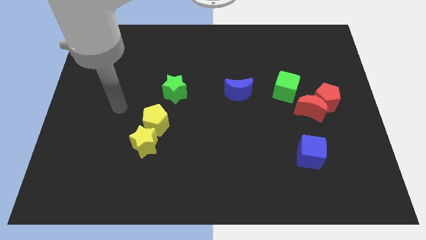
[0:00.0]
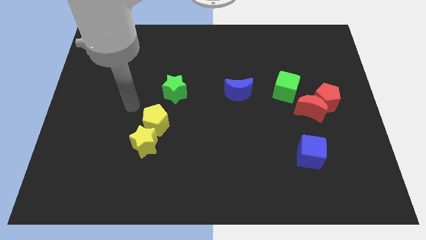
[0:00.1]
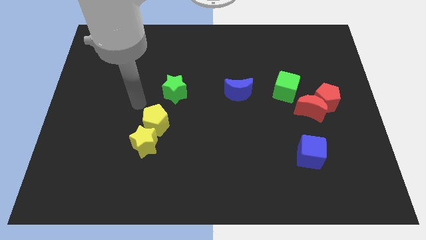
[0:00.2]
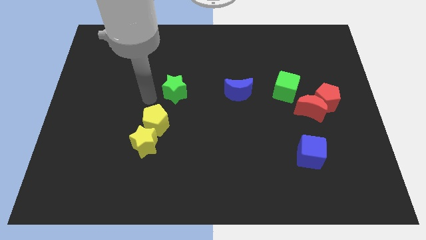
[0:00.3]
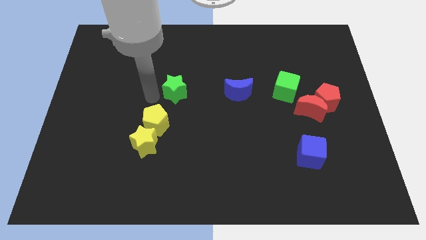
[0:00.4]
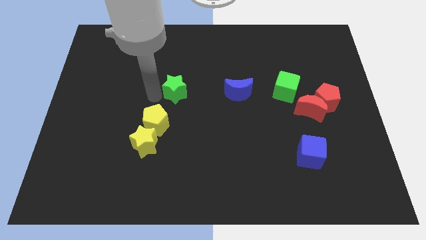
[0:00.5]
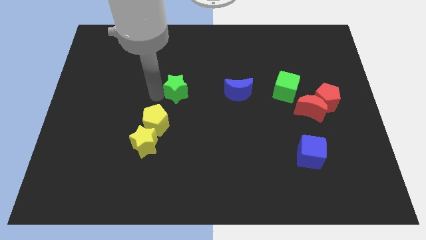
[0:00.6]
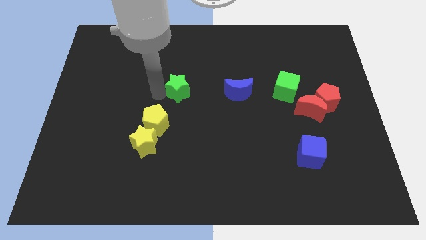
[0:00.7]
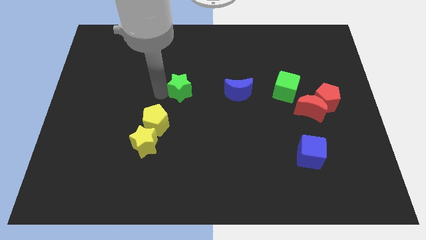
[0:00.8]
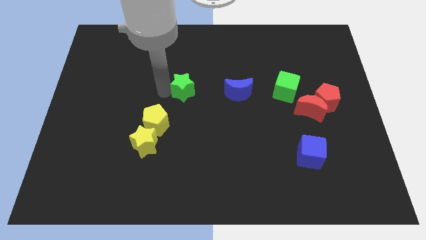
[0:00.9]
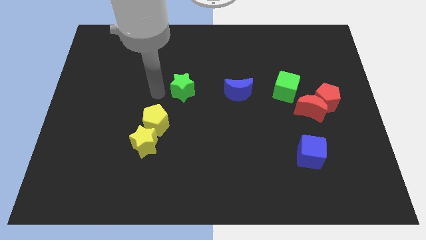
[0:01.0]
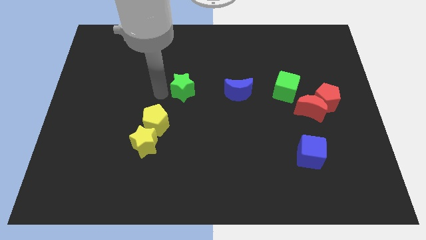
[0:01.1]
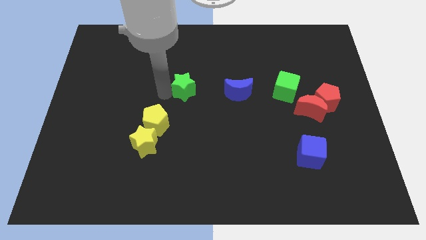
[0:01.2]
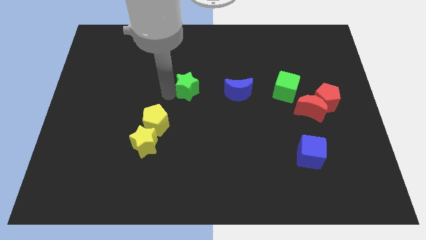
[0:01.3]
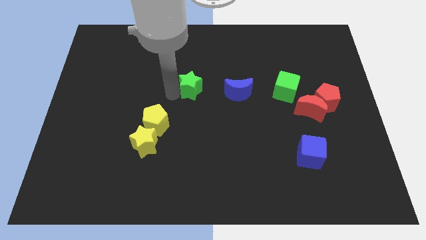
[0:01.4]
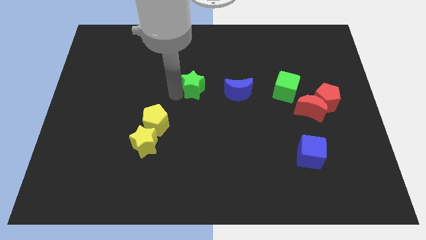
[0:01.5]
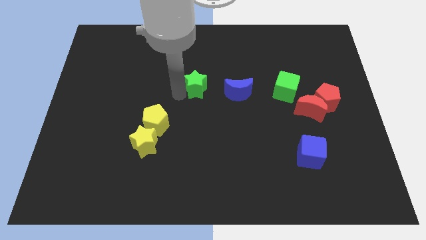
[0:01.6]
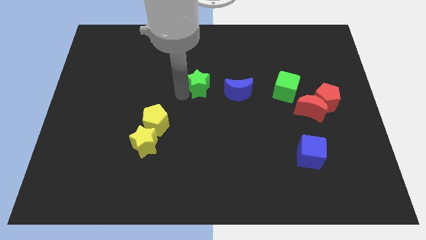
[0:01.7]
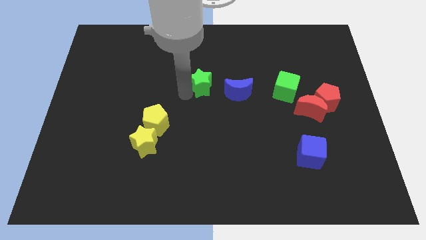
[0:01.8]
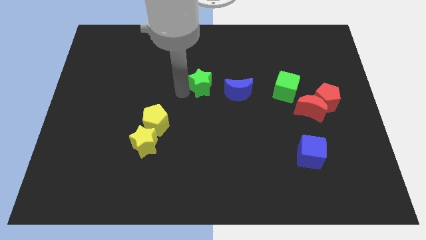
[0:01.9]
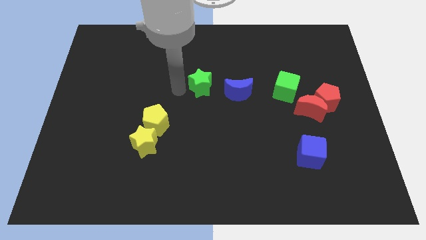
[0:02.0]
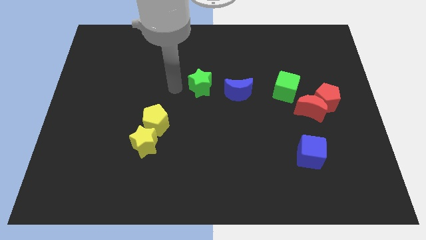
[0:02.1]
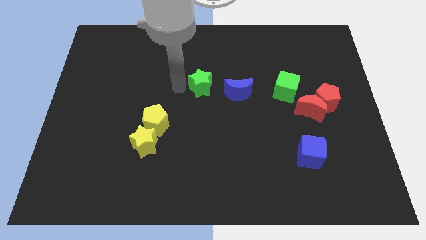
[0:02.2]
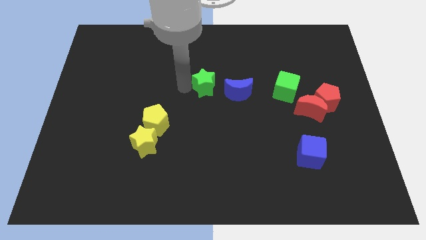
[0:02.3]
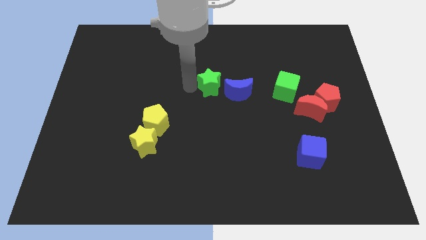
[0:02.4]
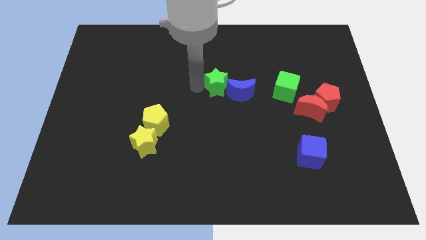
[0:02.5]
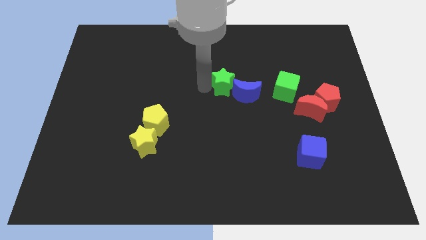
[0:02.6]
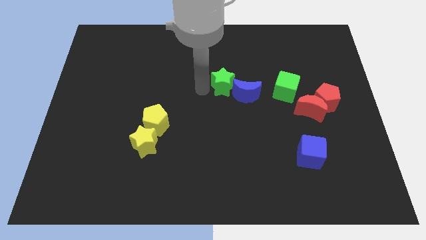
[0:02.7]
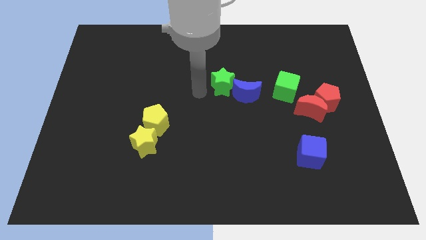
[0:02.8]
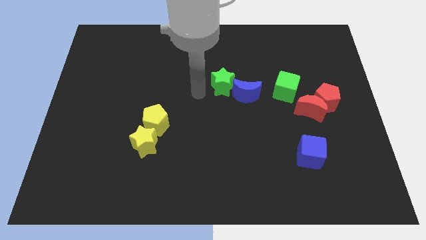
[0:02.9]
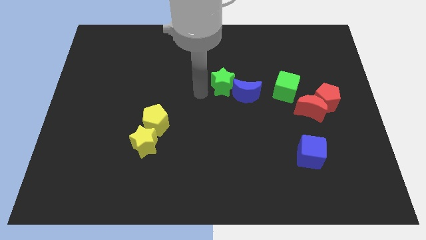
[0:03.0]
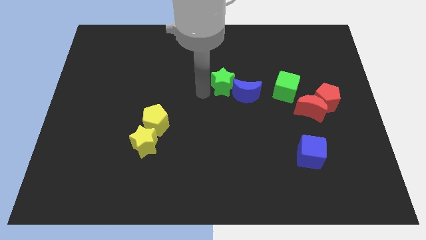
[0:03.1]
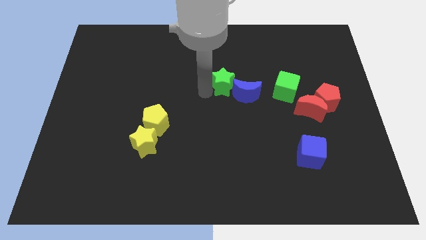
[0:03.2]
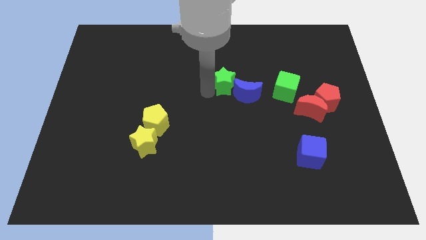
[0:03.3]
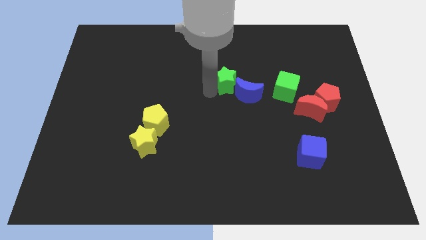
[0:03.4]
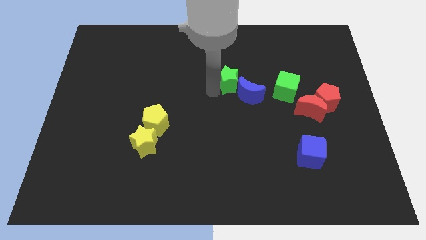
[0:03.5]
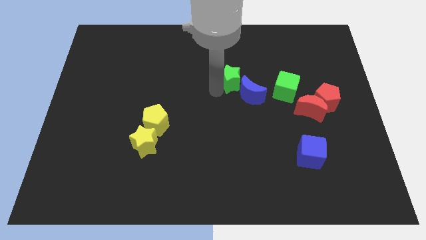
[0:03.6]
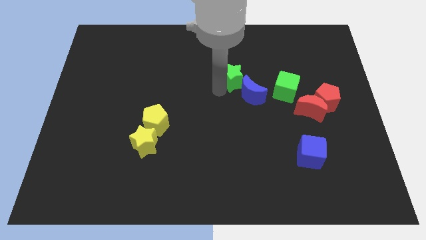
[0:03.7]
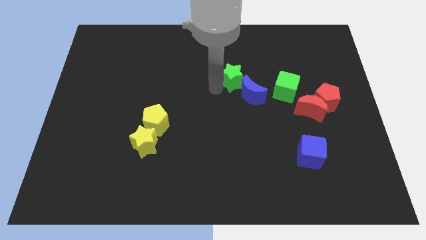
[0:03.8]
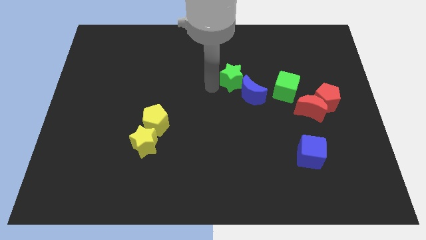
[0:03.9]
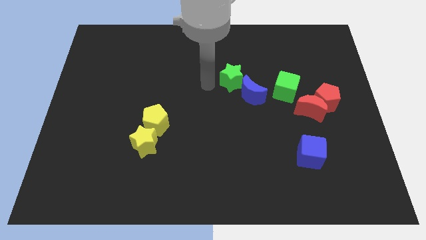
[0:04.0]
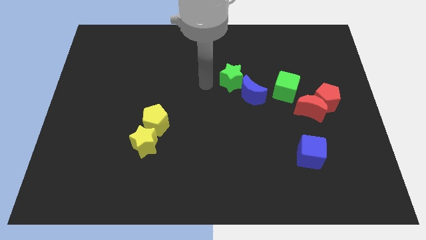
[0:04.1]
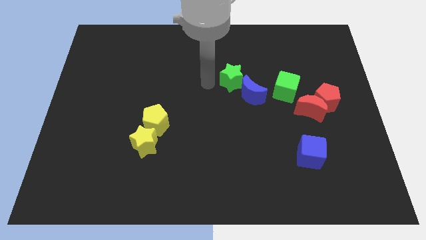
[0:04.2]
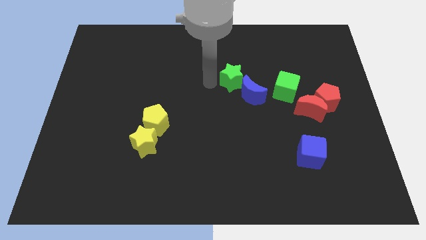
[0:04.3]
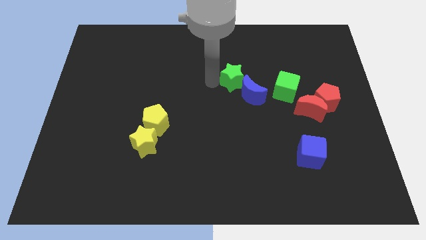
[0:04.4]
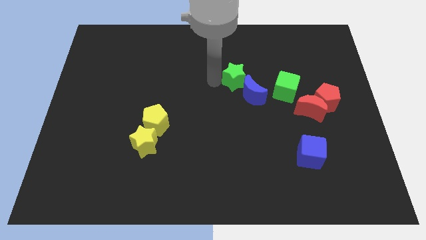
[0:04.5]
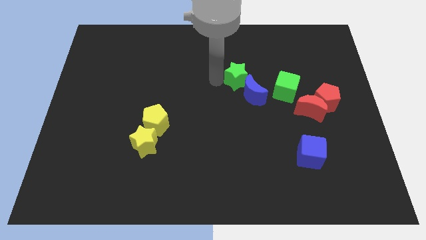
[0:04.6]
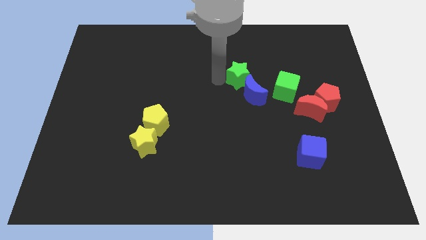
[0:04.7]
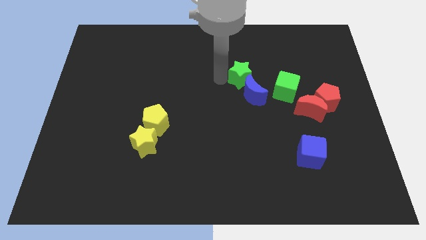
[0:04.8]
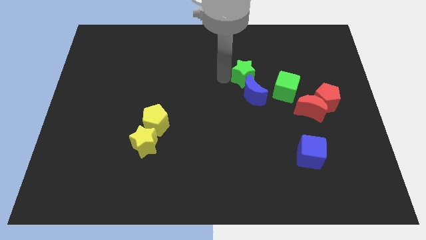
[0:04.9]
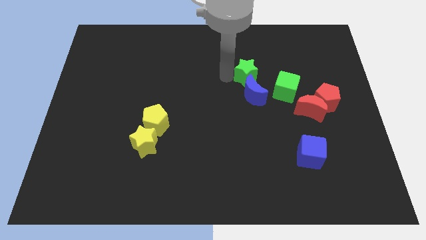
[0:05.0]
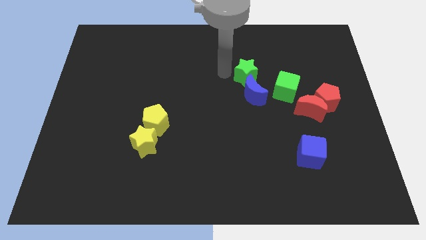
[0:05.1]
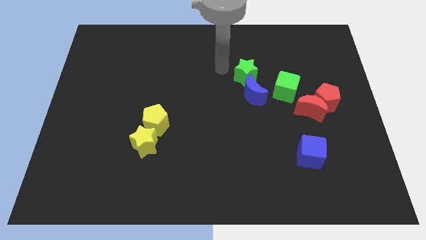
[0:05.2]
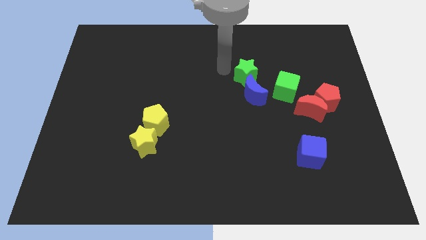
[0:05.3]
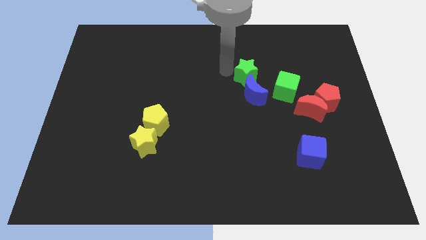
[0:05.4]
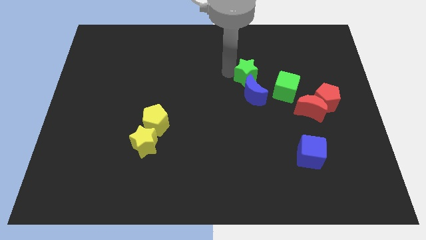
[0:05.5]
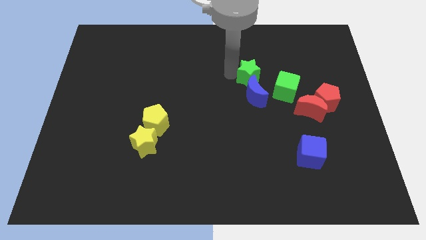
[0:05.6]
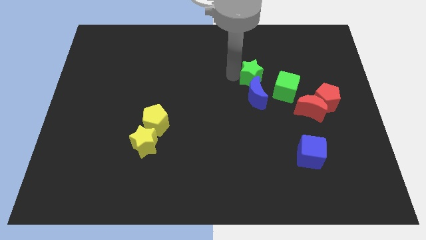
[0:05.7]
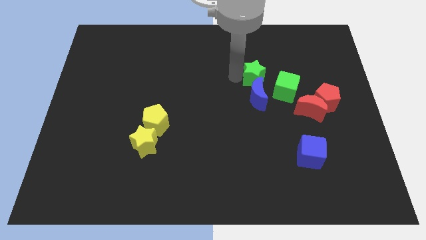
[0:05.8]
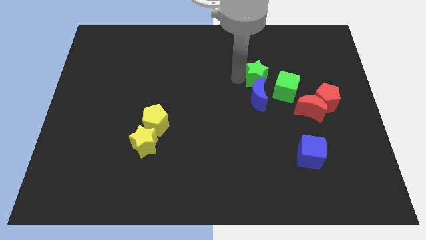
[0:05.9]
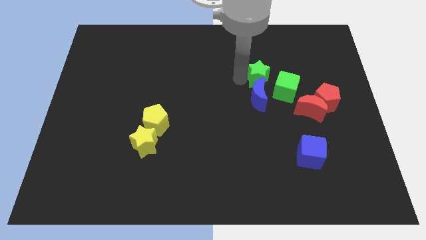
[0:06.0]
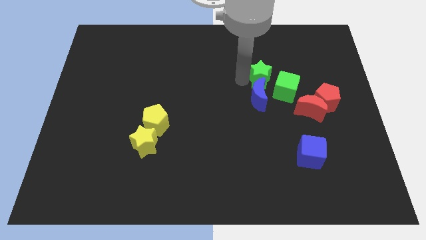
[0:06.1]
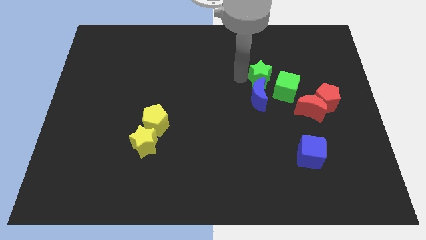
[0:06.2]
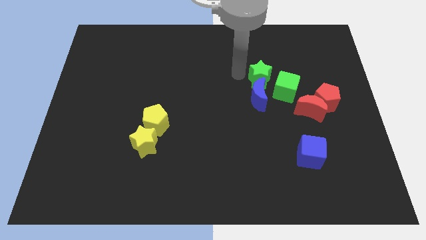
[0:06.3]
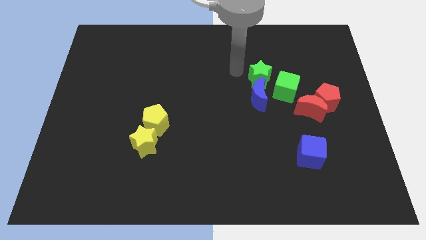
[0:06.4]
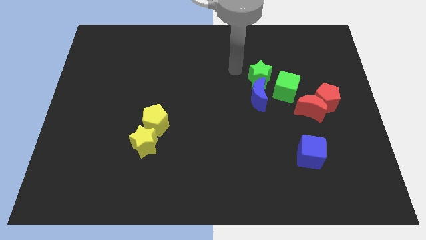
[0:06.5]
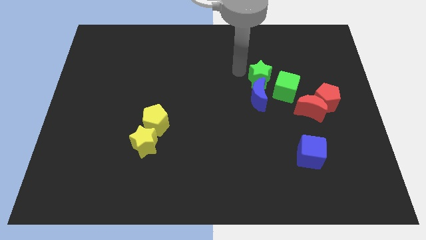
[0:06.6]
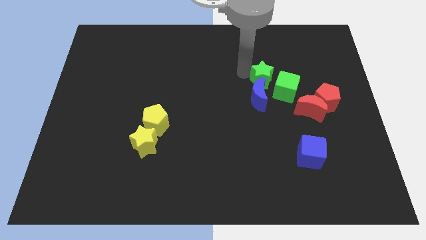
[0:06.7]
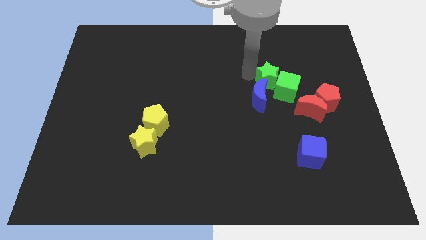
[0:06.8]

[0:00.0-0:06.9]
push the green star next to the green cube

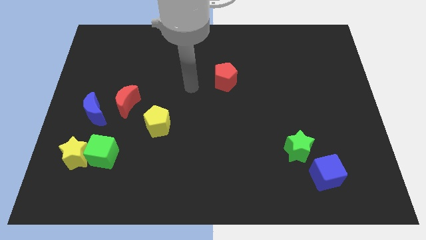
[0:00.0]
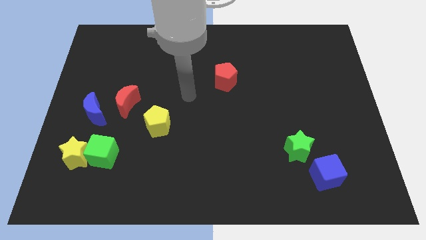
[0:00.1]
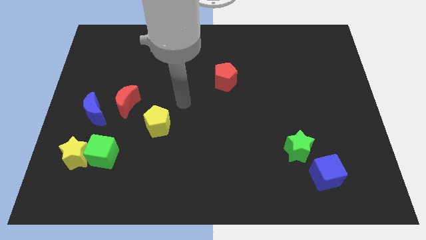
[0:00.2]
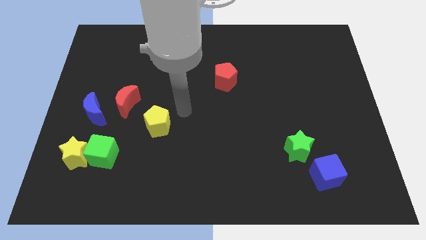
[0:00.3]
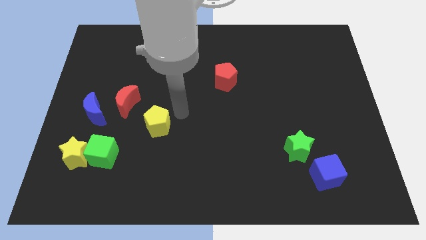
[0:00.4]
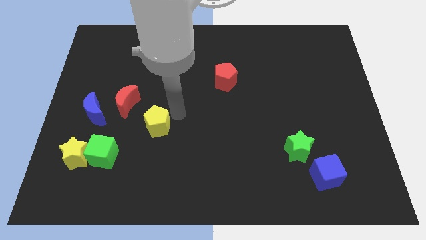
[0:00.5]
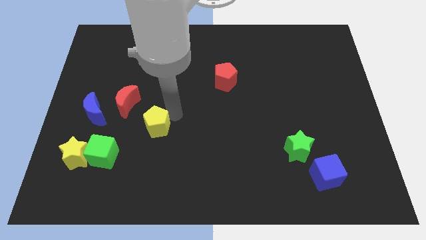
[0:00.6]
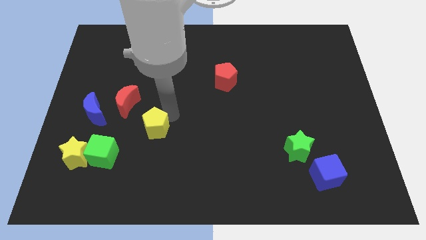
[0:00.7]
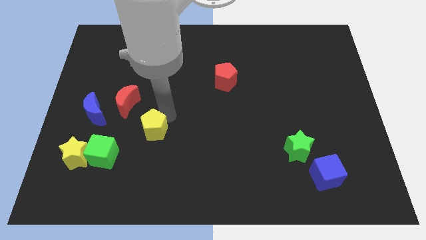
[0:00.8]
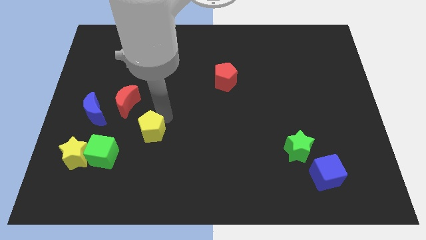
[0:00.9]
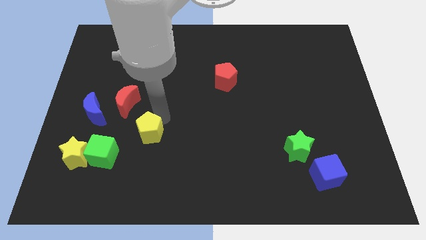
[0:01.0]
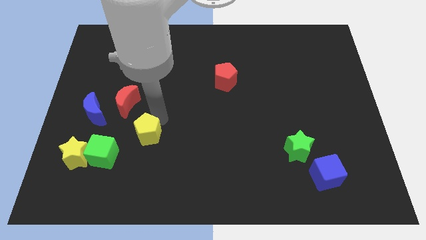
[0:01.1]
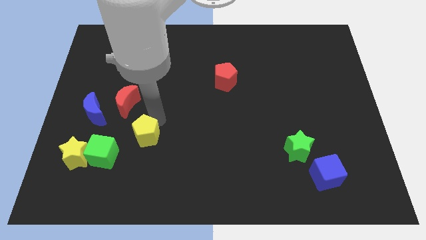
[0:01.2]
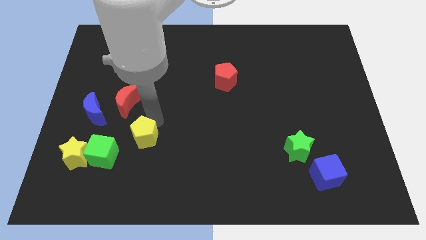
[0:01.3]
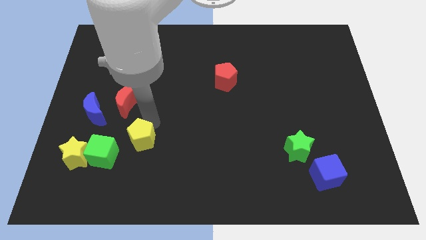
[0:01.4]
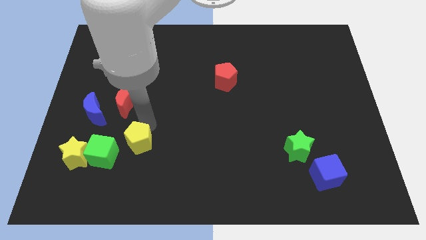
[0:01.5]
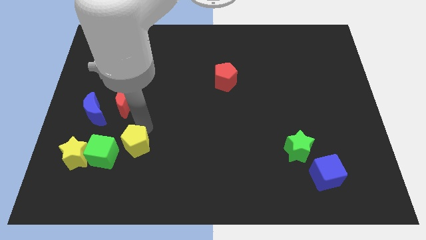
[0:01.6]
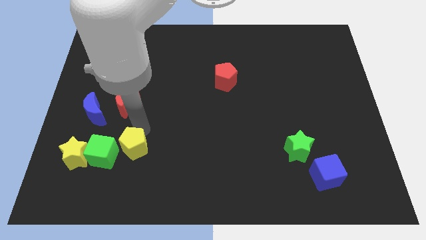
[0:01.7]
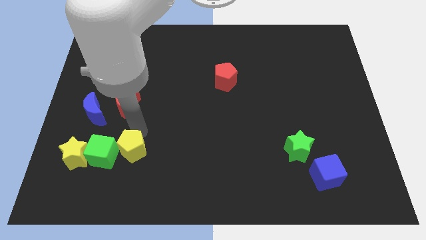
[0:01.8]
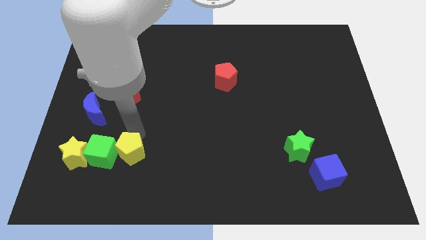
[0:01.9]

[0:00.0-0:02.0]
slide the yellow pentagon towards the green cube
